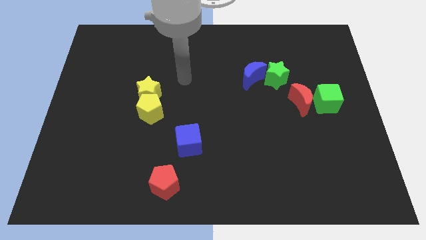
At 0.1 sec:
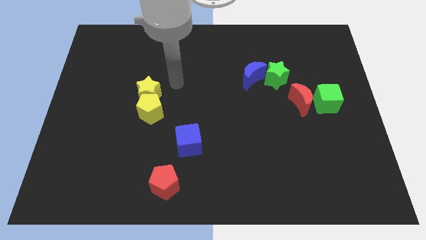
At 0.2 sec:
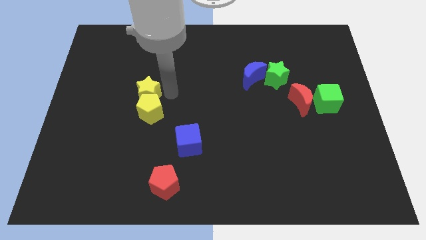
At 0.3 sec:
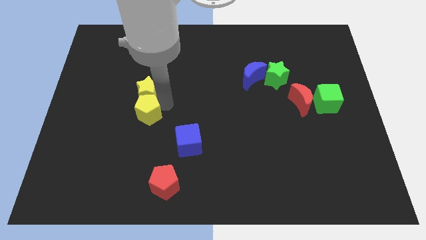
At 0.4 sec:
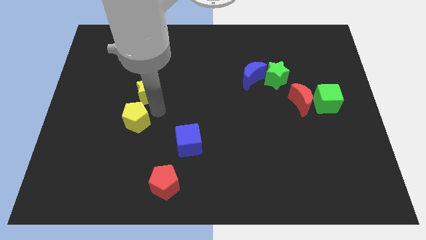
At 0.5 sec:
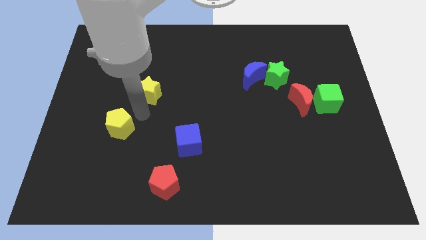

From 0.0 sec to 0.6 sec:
pull the yellow star apart from the yellow pentagon

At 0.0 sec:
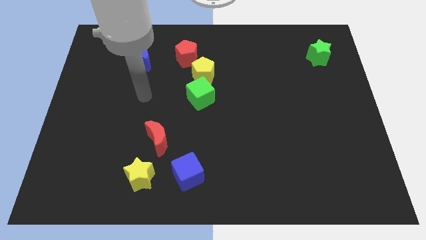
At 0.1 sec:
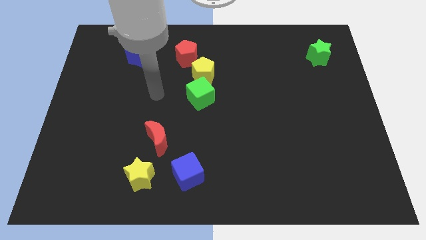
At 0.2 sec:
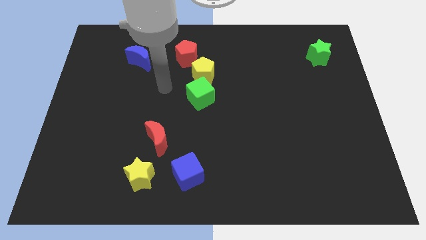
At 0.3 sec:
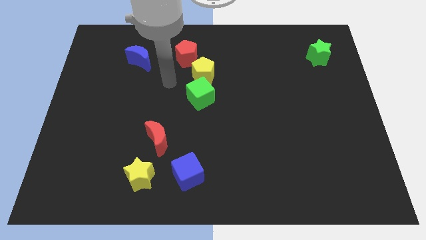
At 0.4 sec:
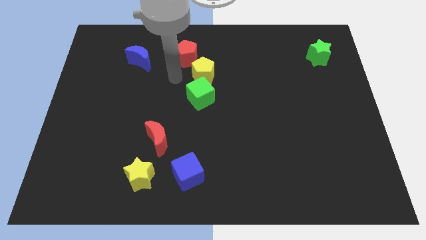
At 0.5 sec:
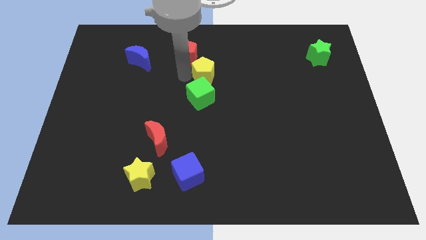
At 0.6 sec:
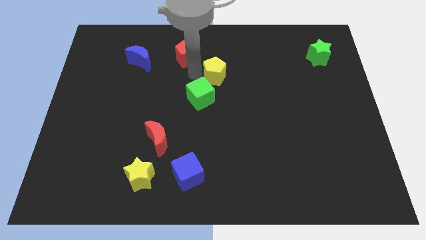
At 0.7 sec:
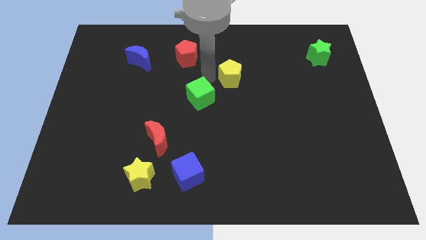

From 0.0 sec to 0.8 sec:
move the green cube away from the yellow pentagon

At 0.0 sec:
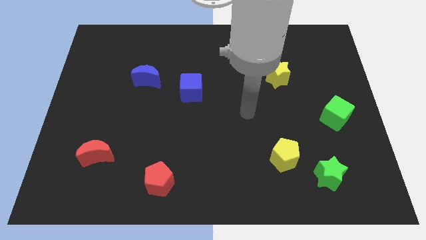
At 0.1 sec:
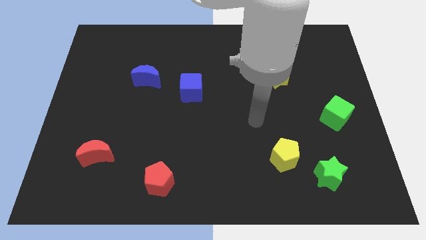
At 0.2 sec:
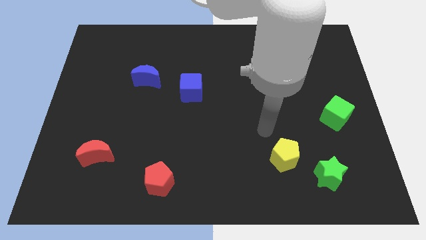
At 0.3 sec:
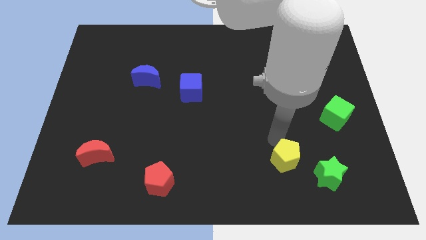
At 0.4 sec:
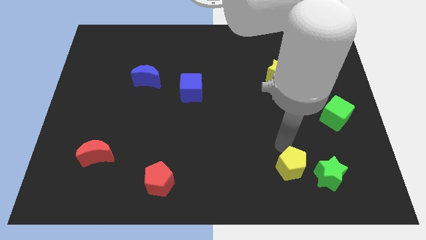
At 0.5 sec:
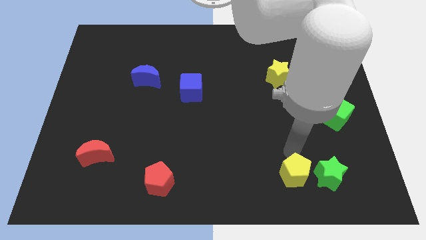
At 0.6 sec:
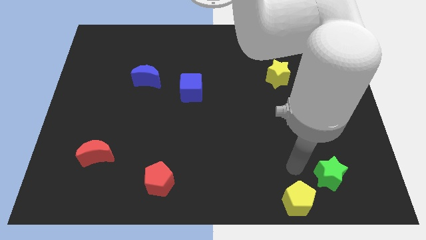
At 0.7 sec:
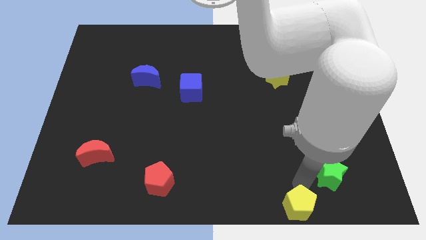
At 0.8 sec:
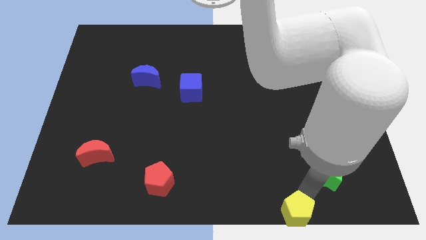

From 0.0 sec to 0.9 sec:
pull the green star apart from the yellow pentagon

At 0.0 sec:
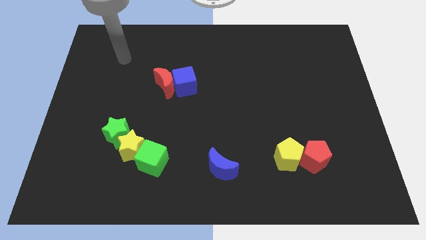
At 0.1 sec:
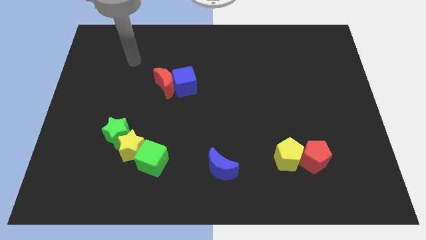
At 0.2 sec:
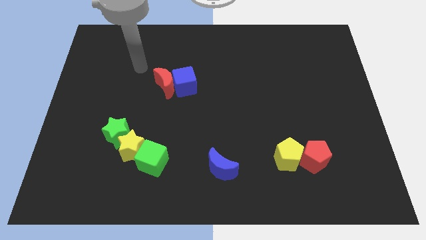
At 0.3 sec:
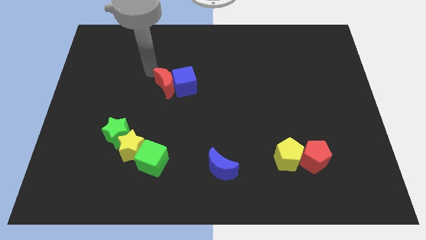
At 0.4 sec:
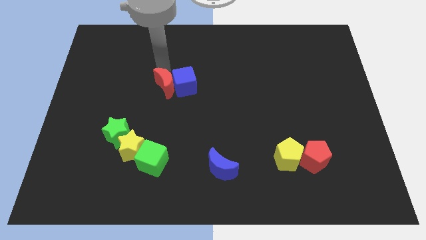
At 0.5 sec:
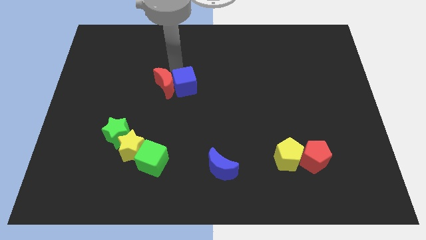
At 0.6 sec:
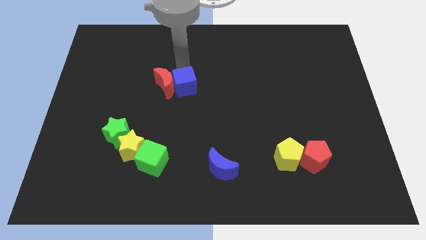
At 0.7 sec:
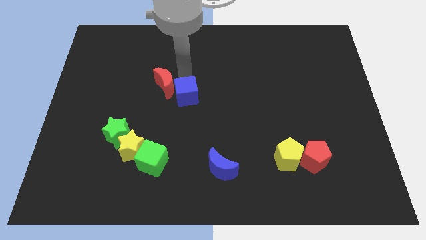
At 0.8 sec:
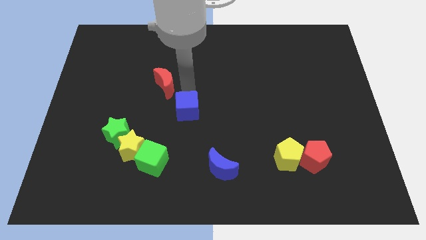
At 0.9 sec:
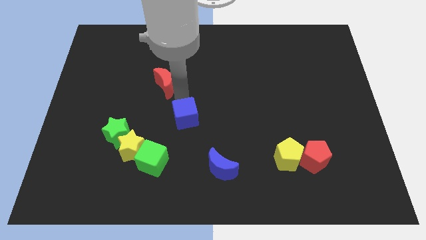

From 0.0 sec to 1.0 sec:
separate the red moon from the blue cube

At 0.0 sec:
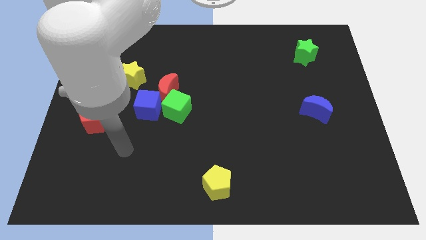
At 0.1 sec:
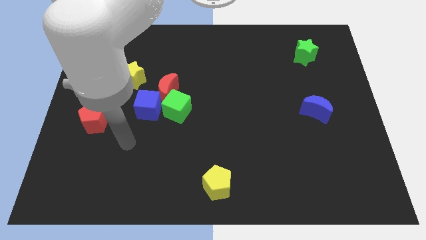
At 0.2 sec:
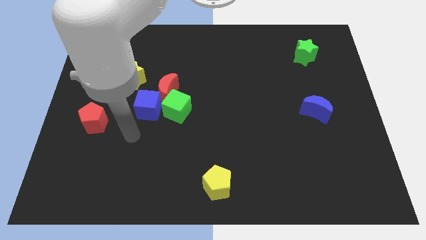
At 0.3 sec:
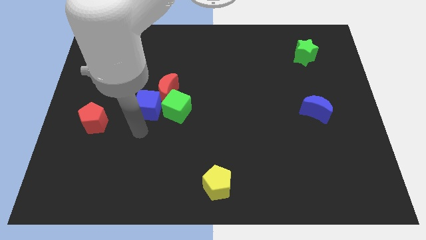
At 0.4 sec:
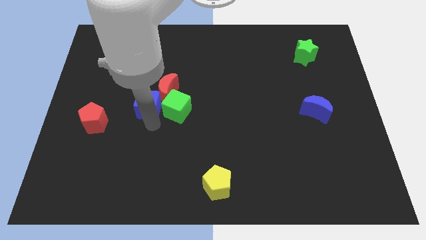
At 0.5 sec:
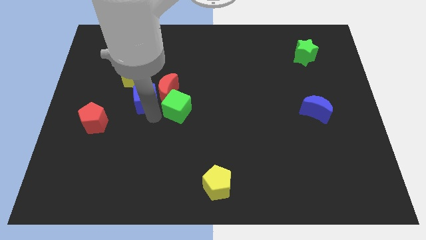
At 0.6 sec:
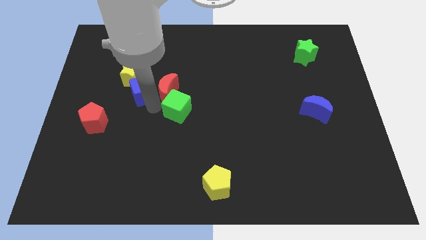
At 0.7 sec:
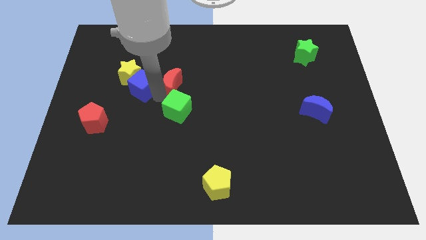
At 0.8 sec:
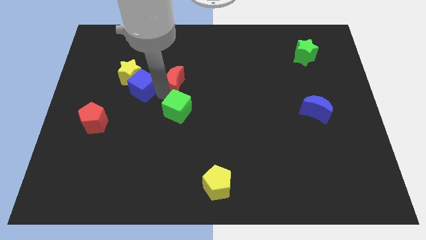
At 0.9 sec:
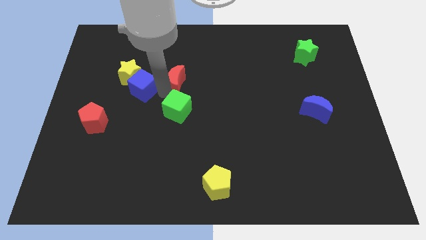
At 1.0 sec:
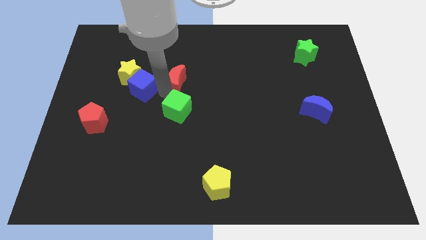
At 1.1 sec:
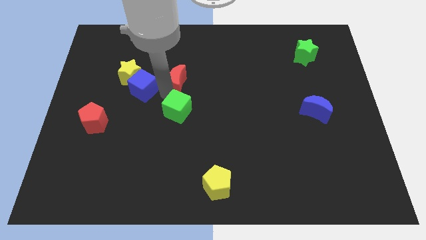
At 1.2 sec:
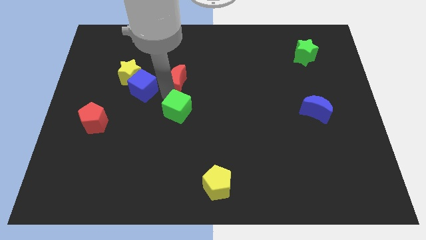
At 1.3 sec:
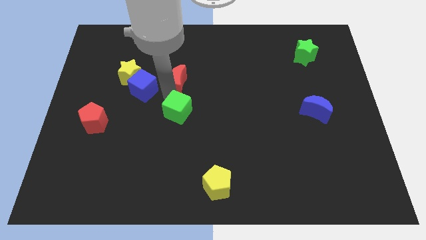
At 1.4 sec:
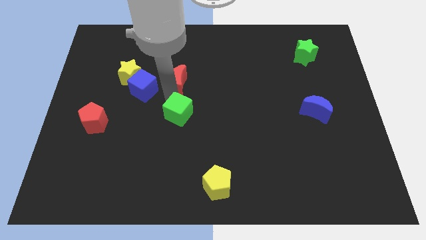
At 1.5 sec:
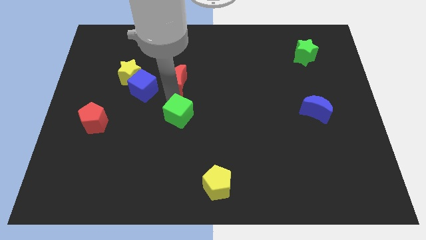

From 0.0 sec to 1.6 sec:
move the green cube away from the red moon and blue cube

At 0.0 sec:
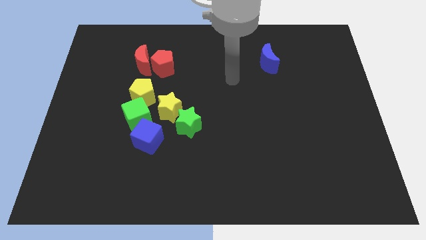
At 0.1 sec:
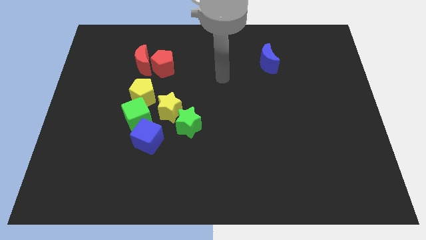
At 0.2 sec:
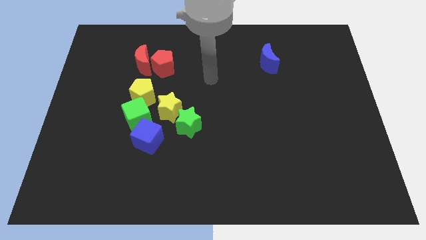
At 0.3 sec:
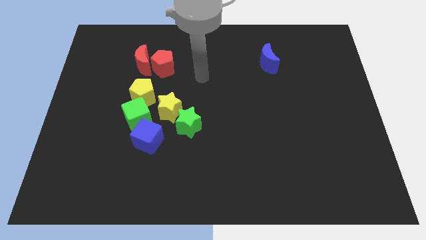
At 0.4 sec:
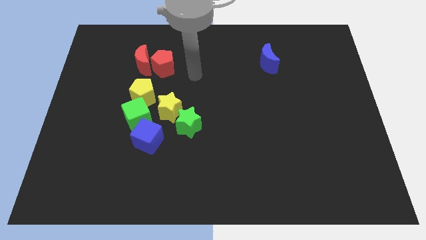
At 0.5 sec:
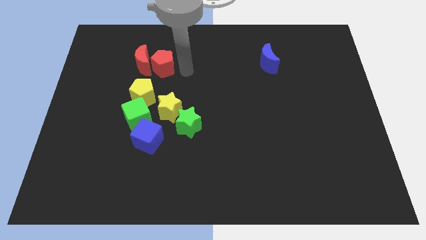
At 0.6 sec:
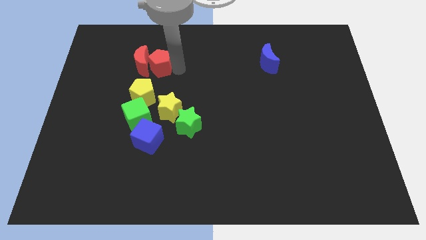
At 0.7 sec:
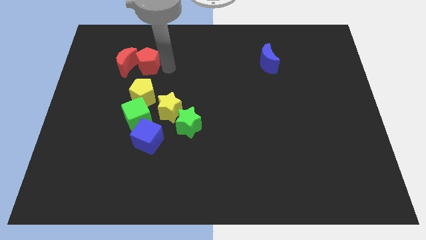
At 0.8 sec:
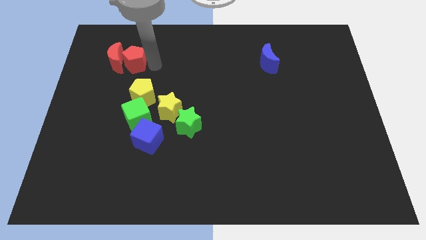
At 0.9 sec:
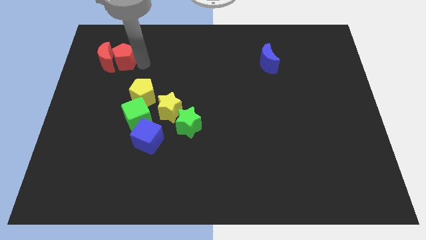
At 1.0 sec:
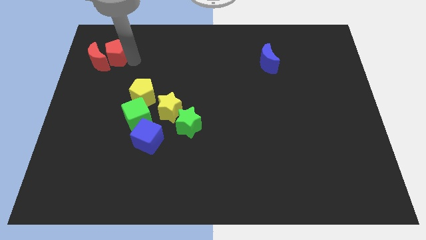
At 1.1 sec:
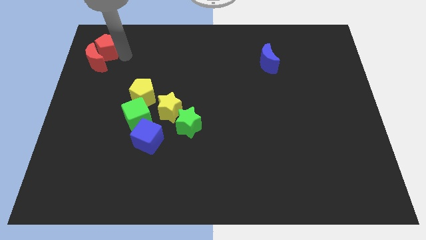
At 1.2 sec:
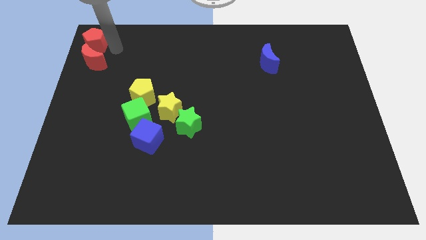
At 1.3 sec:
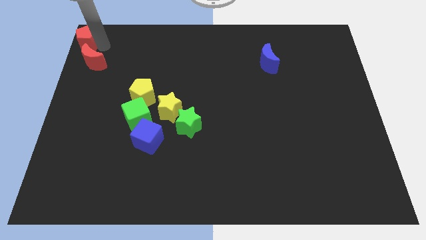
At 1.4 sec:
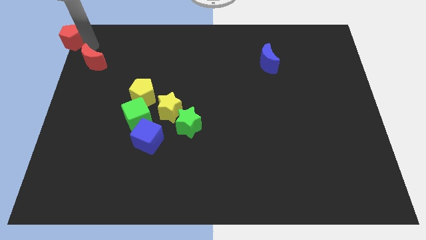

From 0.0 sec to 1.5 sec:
pull the red moon apart from the red pentagon

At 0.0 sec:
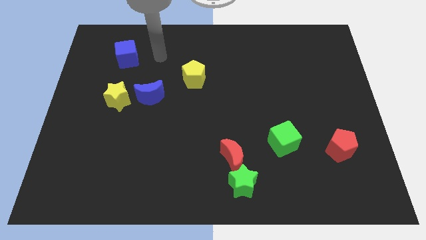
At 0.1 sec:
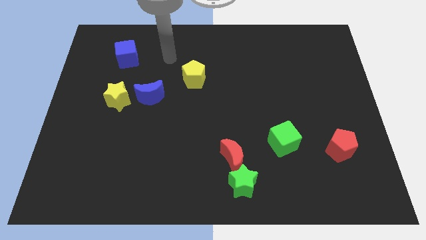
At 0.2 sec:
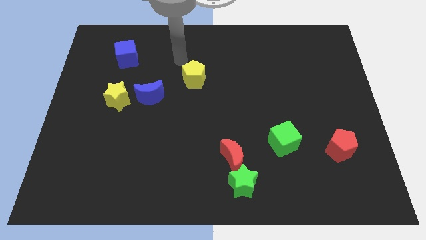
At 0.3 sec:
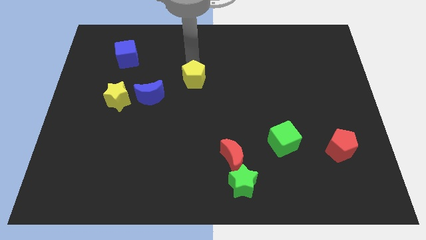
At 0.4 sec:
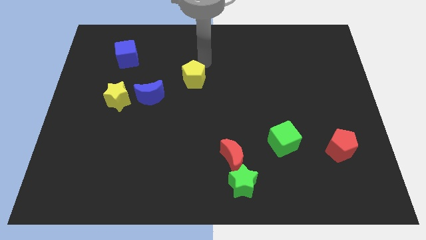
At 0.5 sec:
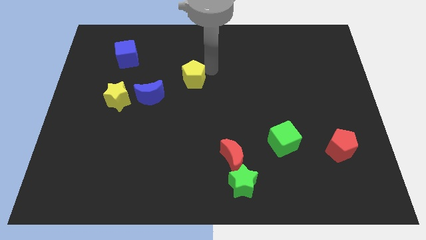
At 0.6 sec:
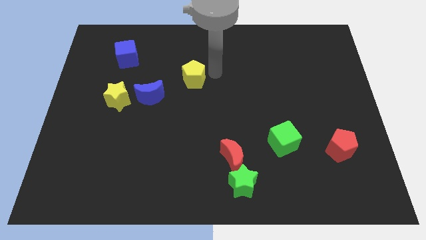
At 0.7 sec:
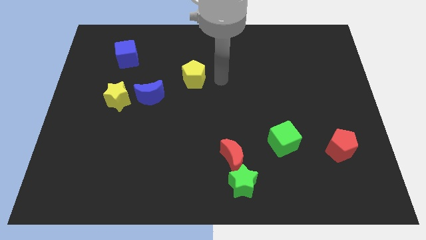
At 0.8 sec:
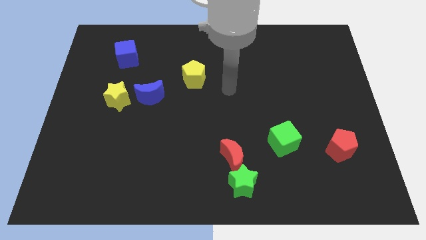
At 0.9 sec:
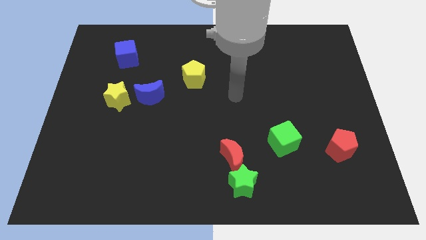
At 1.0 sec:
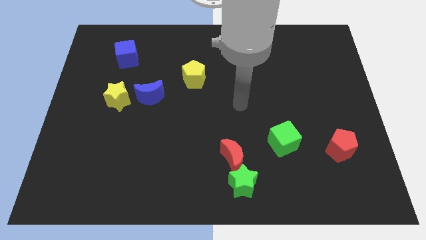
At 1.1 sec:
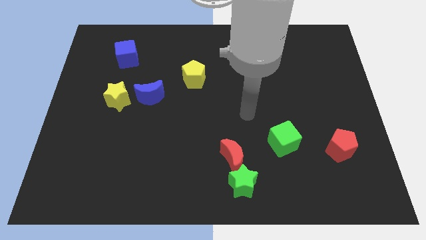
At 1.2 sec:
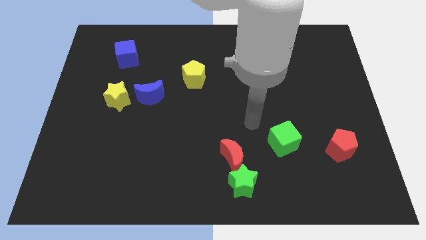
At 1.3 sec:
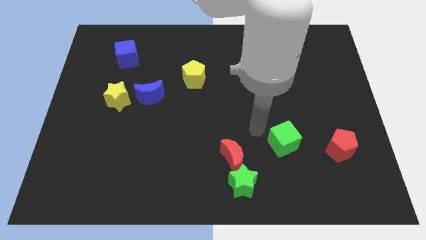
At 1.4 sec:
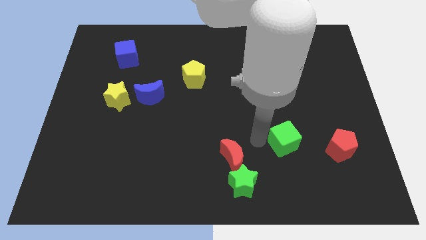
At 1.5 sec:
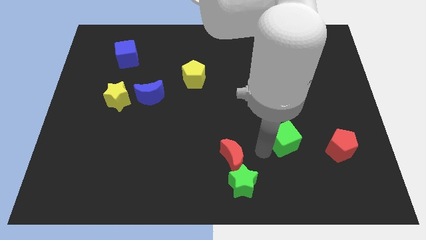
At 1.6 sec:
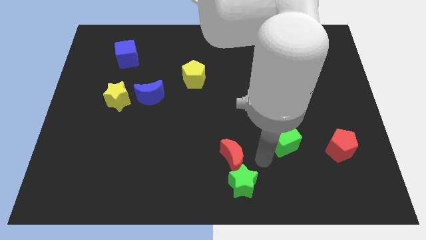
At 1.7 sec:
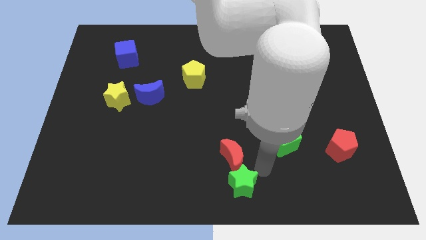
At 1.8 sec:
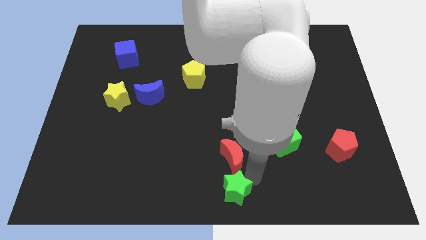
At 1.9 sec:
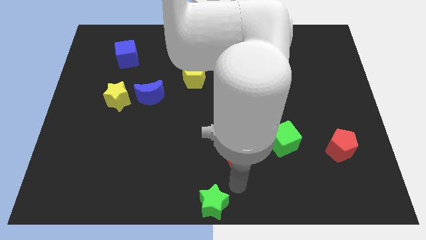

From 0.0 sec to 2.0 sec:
separate the red moon from the green star

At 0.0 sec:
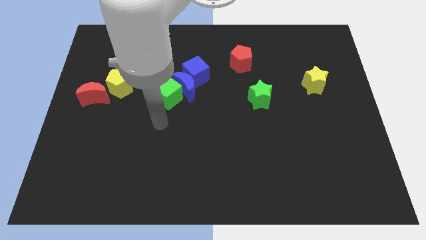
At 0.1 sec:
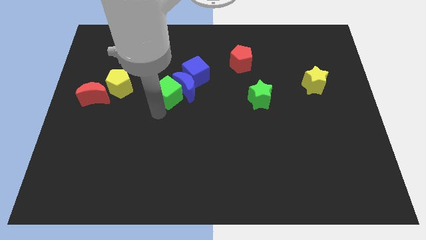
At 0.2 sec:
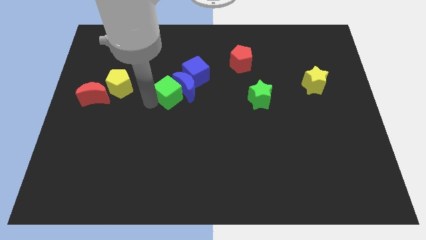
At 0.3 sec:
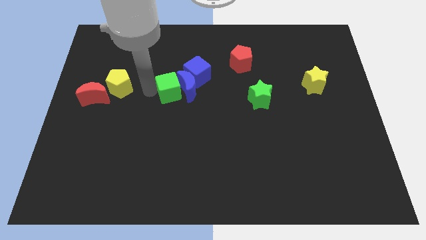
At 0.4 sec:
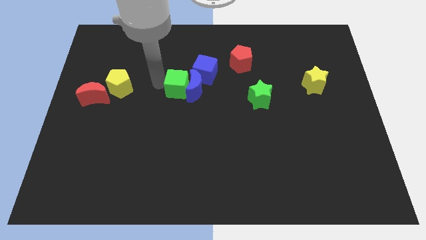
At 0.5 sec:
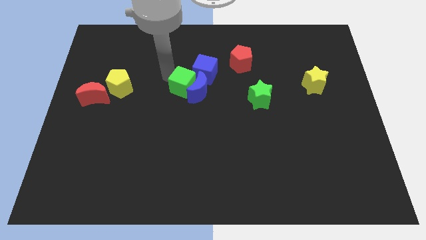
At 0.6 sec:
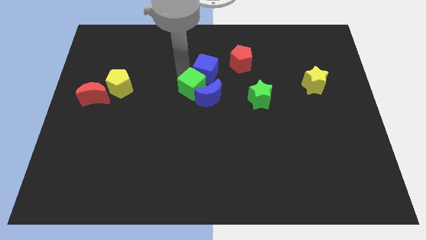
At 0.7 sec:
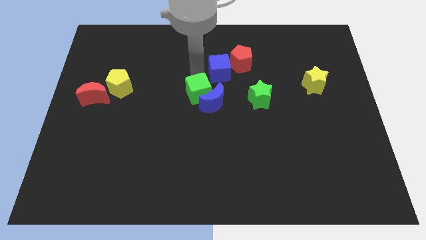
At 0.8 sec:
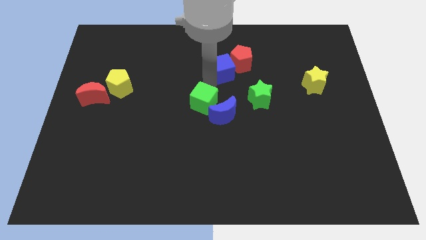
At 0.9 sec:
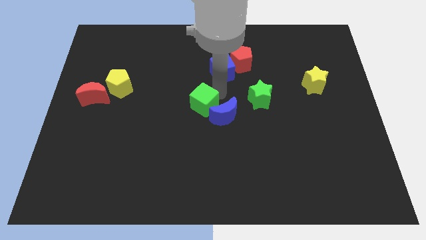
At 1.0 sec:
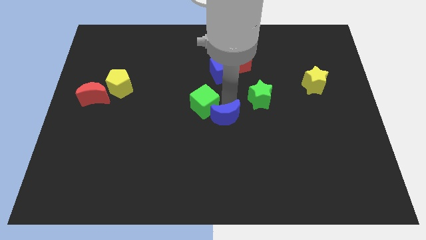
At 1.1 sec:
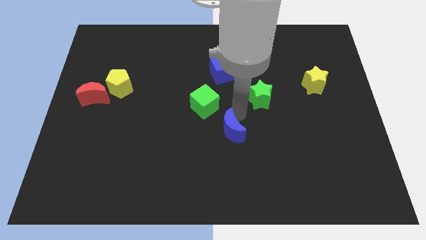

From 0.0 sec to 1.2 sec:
separate the blue moon from the green cube and blue cube
